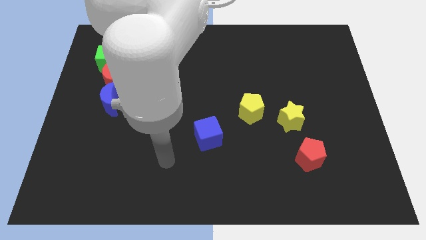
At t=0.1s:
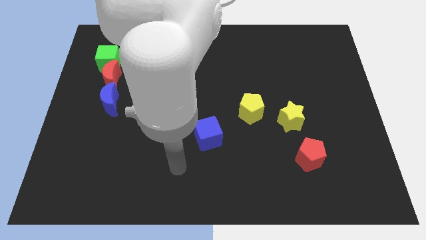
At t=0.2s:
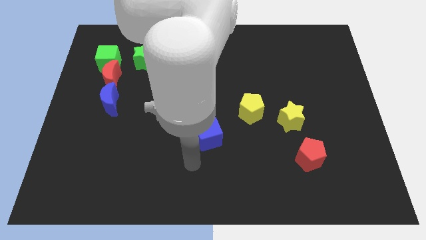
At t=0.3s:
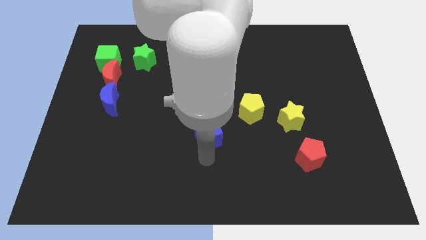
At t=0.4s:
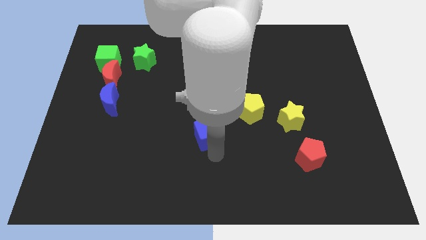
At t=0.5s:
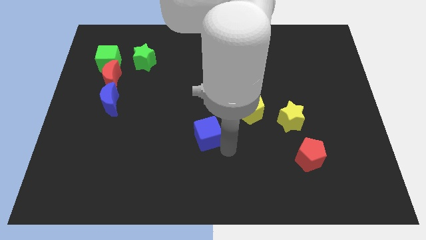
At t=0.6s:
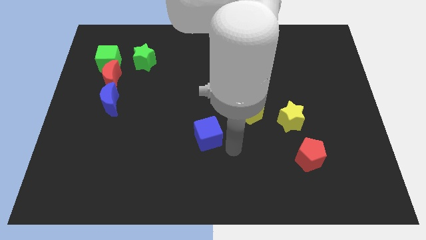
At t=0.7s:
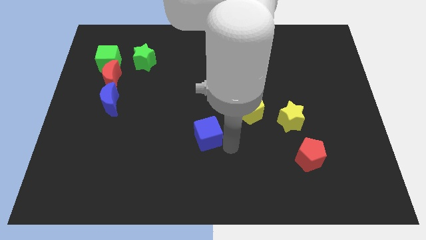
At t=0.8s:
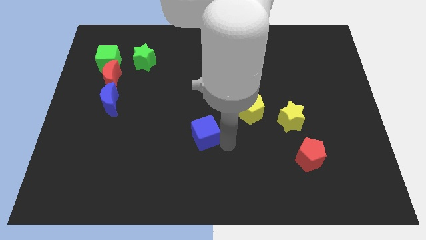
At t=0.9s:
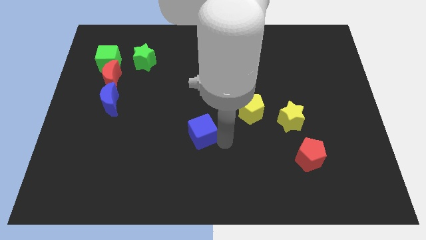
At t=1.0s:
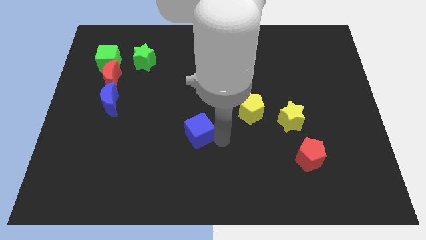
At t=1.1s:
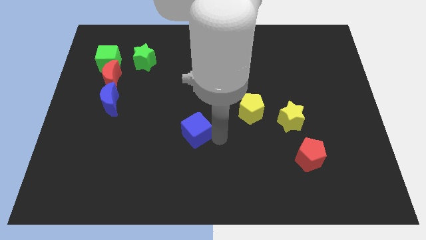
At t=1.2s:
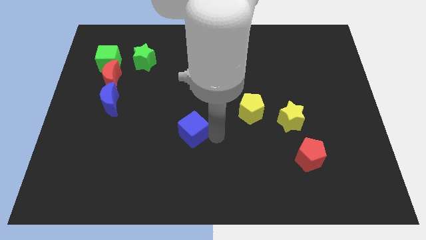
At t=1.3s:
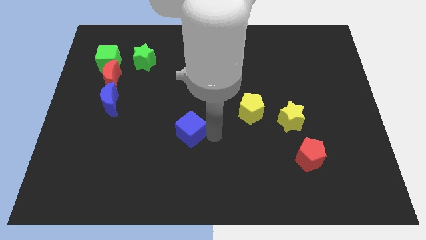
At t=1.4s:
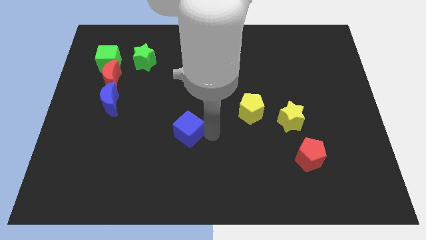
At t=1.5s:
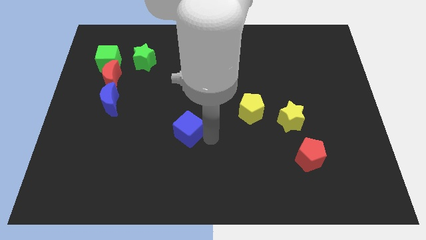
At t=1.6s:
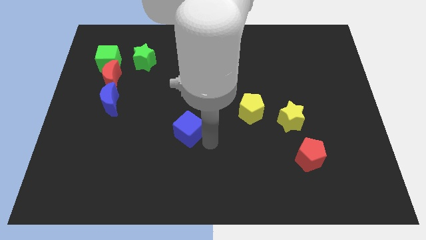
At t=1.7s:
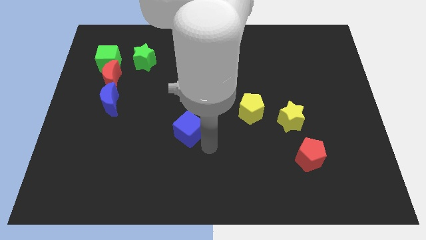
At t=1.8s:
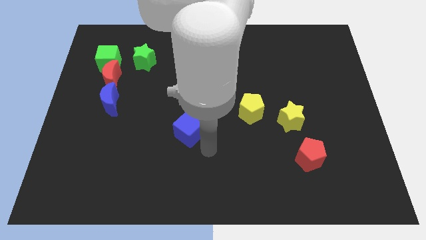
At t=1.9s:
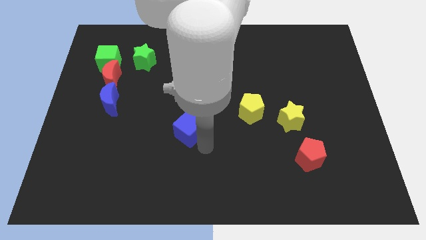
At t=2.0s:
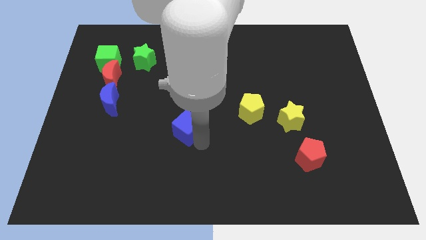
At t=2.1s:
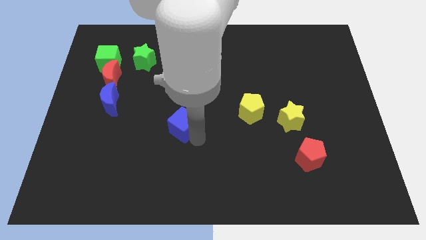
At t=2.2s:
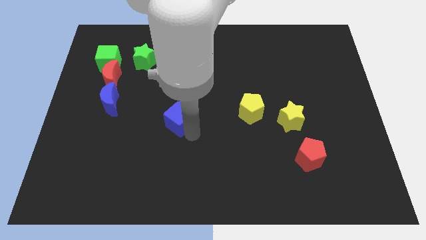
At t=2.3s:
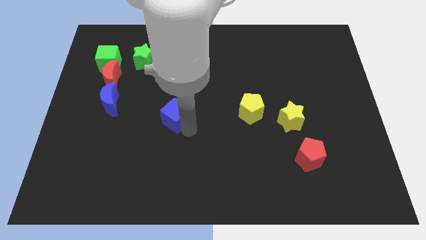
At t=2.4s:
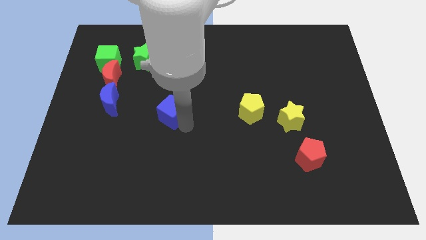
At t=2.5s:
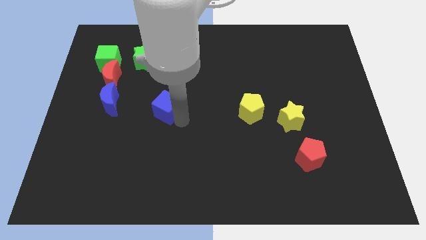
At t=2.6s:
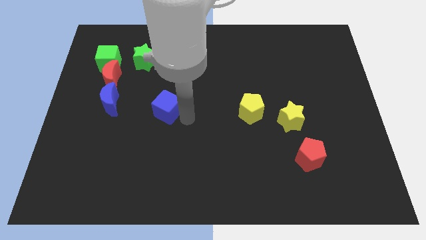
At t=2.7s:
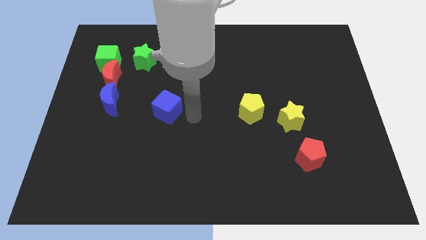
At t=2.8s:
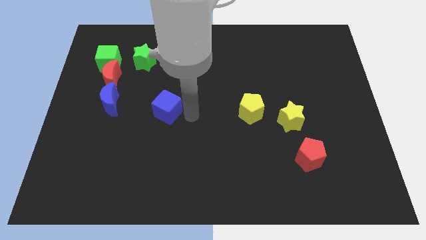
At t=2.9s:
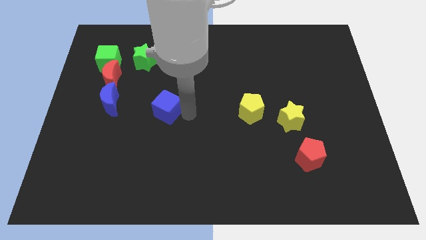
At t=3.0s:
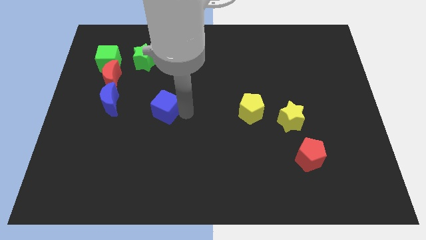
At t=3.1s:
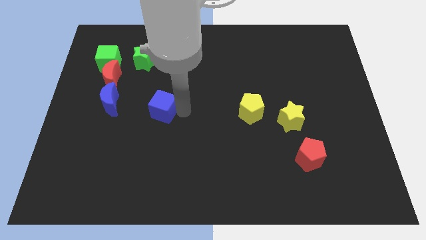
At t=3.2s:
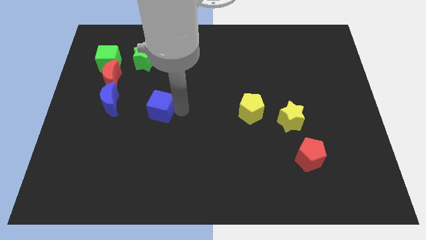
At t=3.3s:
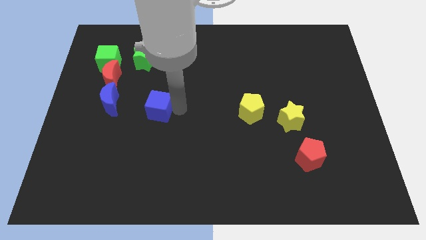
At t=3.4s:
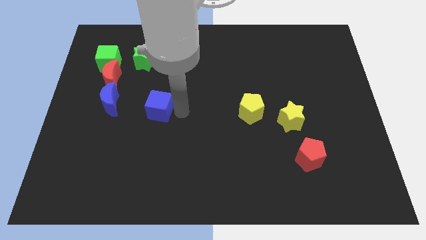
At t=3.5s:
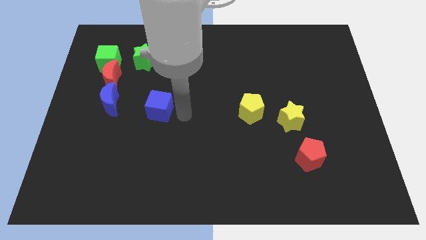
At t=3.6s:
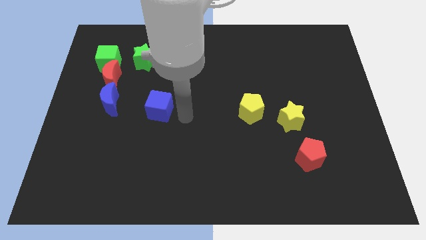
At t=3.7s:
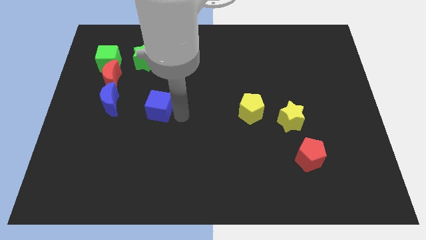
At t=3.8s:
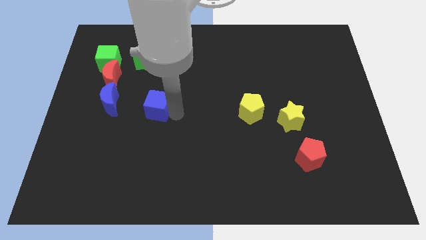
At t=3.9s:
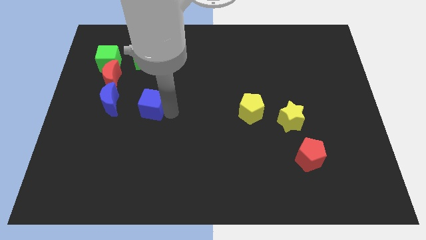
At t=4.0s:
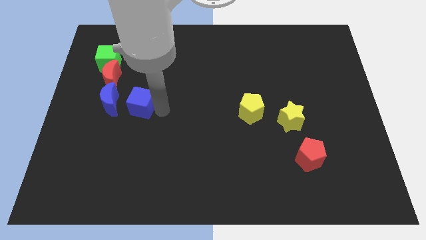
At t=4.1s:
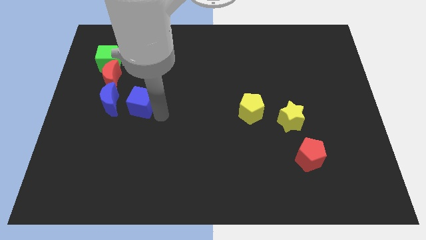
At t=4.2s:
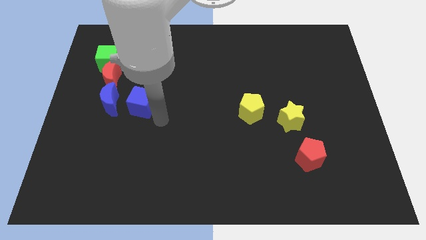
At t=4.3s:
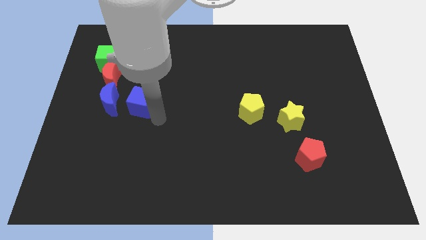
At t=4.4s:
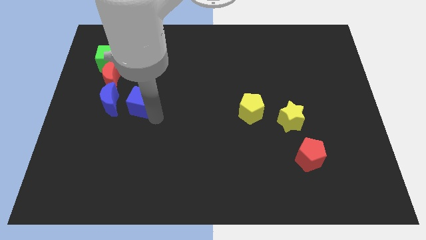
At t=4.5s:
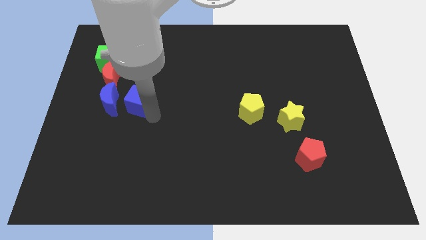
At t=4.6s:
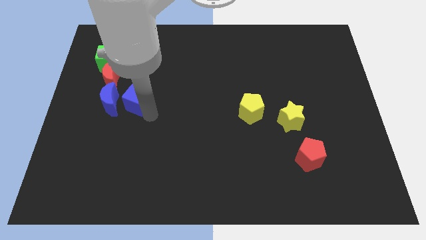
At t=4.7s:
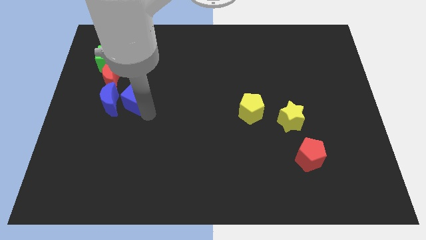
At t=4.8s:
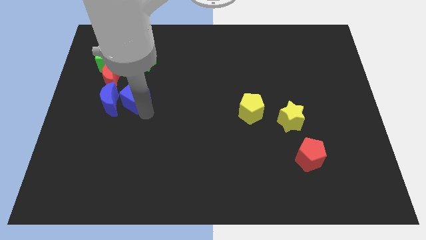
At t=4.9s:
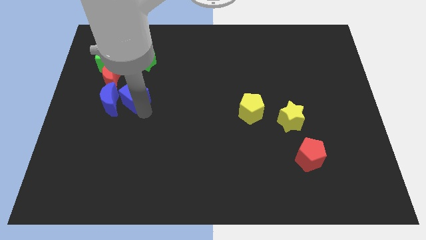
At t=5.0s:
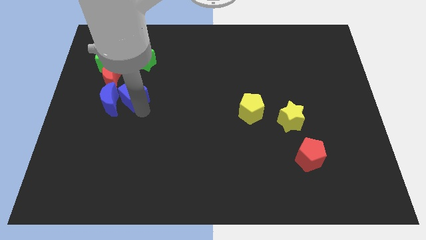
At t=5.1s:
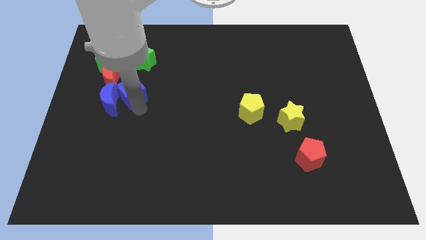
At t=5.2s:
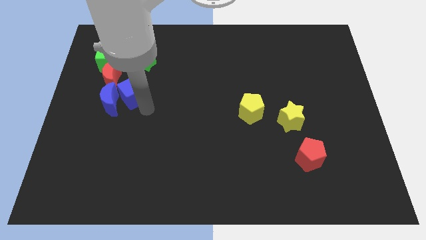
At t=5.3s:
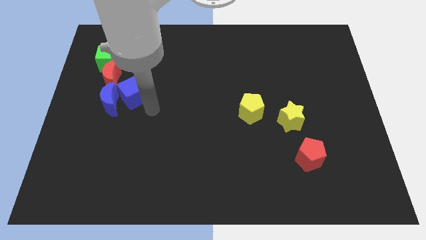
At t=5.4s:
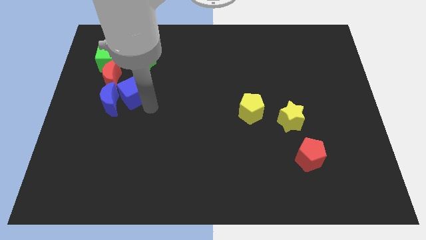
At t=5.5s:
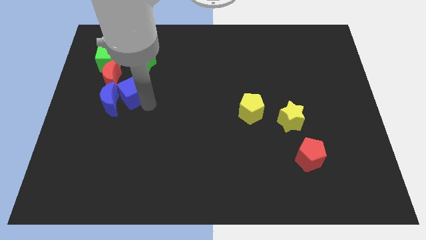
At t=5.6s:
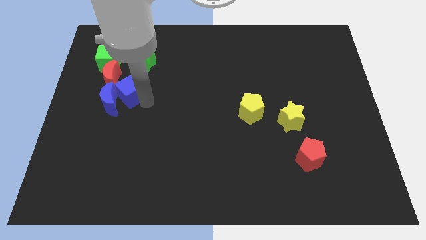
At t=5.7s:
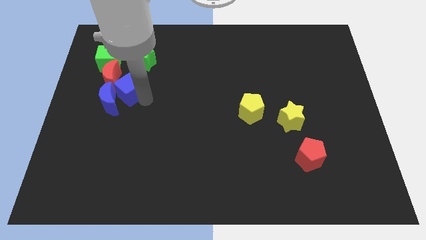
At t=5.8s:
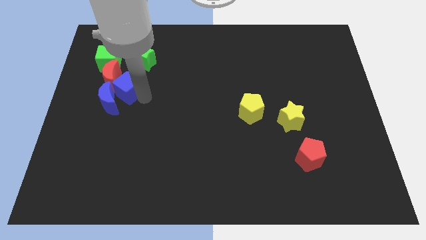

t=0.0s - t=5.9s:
slide the blue cube to the red moon

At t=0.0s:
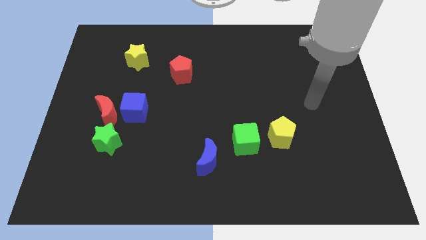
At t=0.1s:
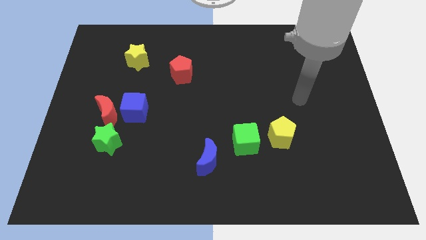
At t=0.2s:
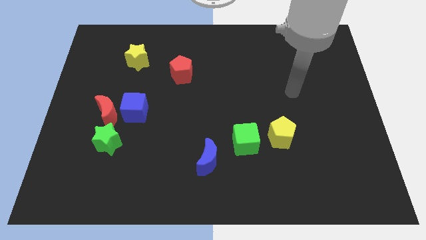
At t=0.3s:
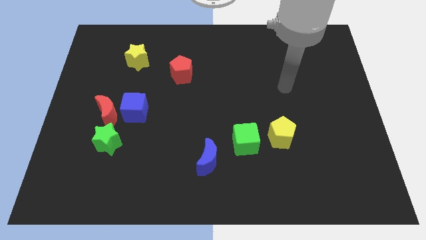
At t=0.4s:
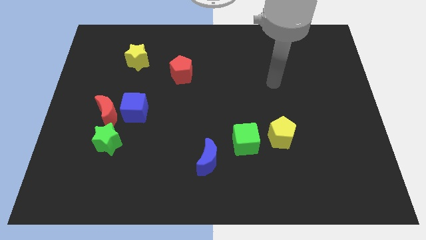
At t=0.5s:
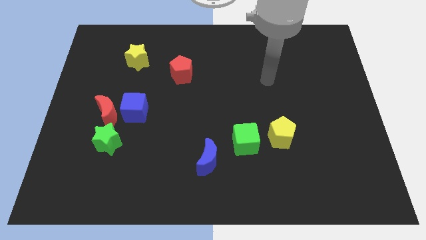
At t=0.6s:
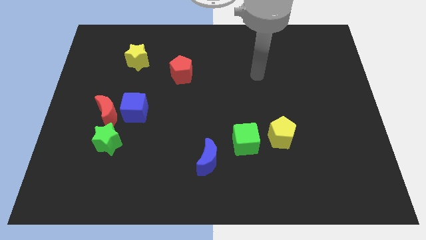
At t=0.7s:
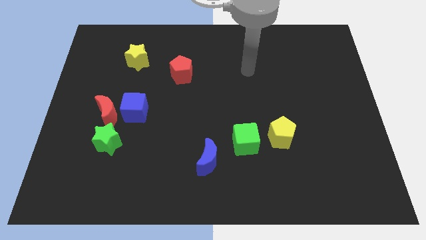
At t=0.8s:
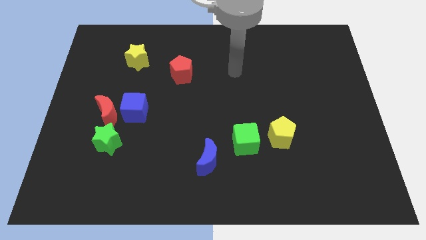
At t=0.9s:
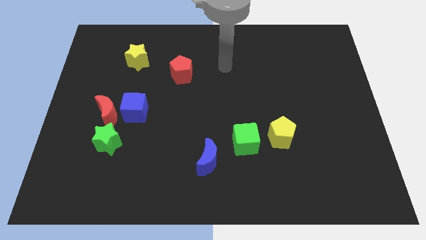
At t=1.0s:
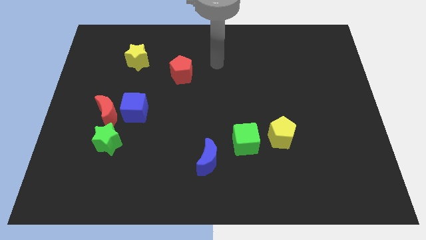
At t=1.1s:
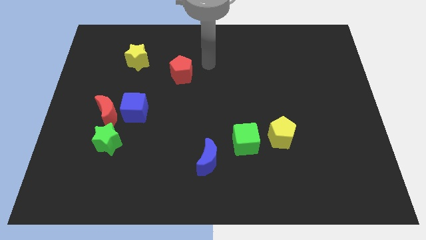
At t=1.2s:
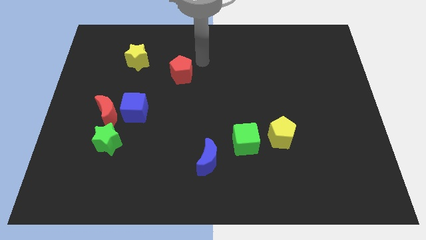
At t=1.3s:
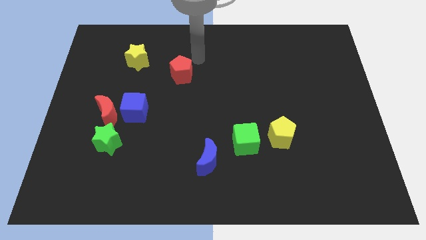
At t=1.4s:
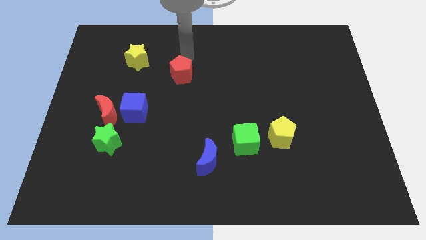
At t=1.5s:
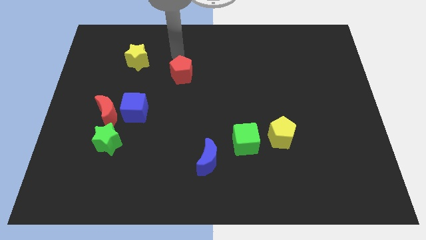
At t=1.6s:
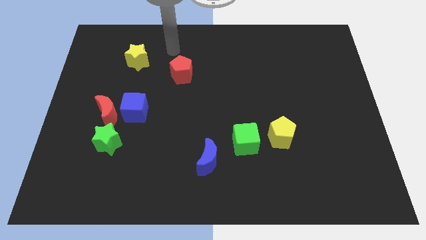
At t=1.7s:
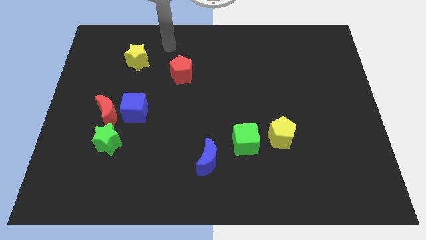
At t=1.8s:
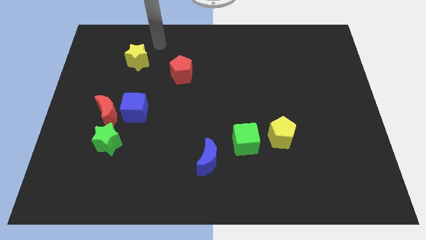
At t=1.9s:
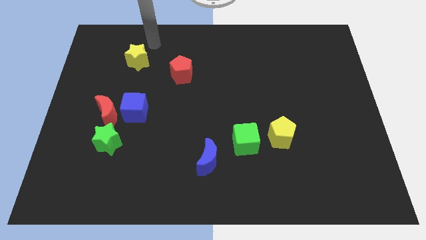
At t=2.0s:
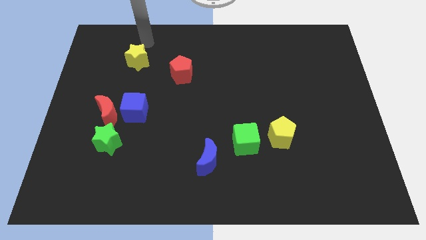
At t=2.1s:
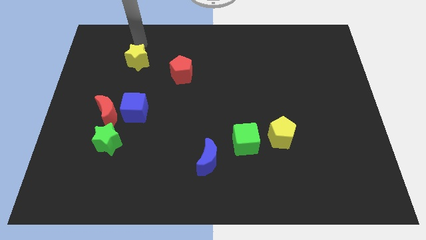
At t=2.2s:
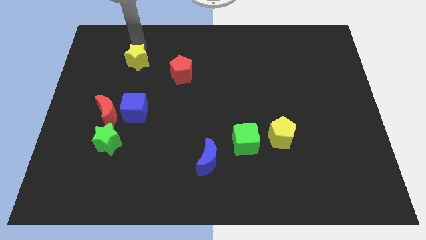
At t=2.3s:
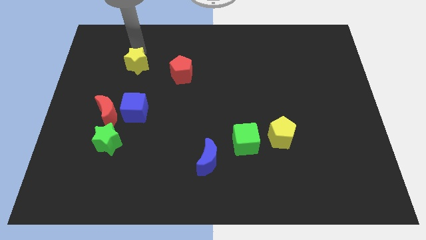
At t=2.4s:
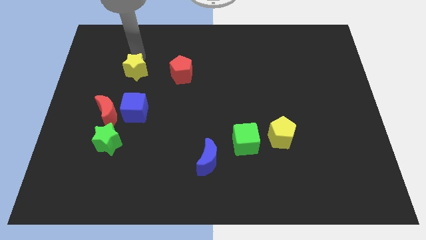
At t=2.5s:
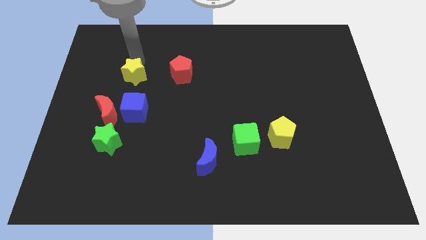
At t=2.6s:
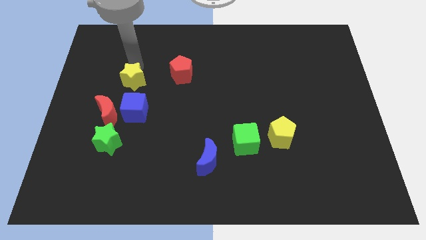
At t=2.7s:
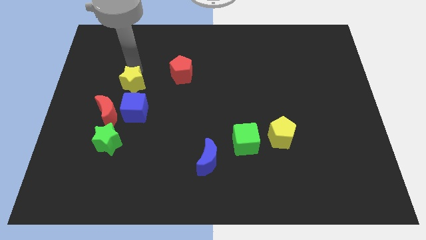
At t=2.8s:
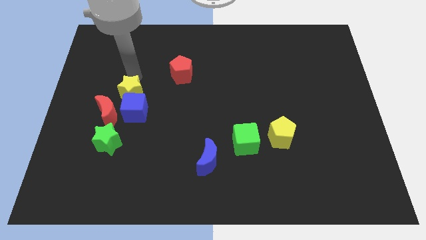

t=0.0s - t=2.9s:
push the yellow star towards the blue cube
